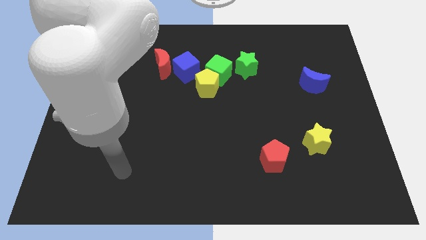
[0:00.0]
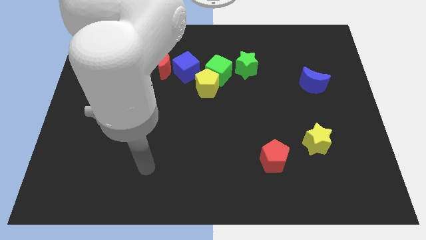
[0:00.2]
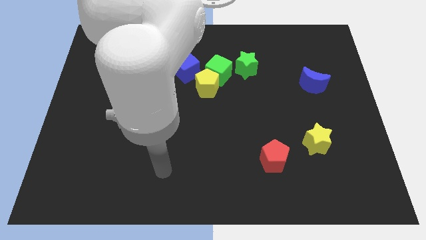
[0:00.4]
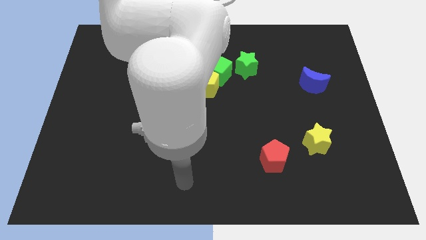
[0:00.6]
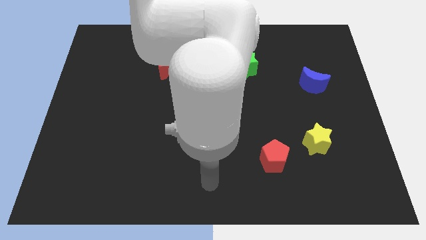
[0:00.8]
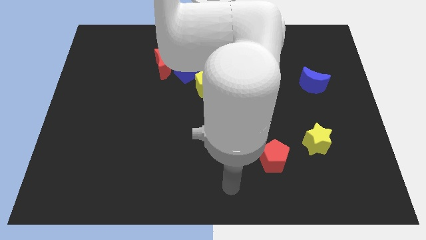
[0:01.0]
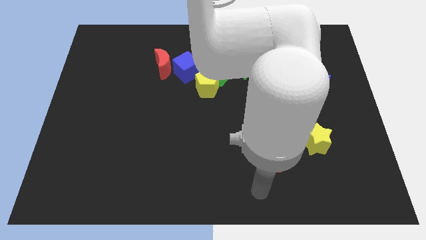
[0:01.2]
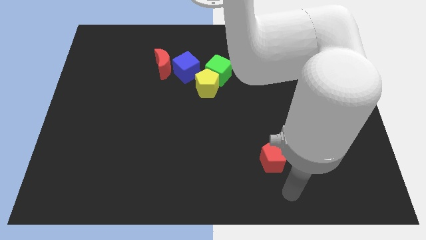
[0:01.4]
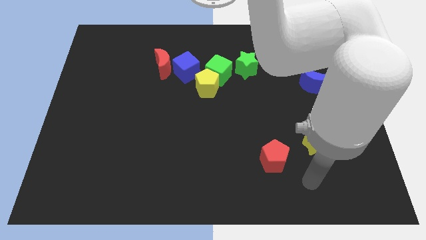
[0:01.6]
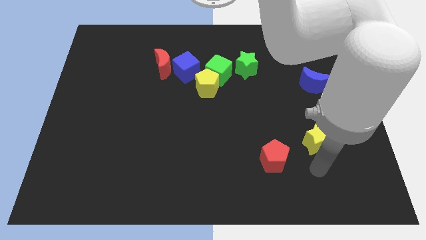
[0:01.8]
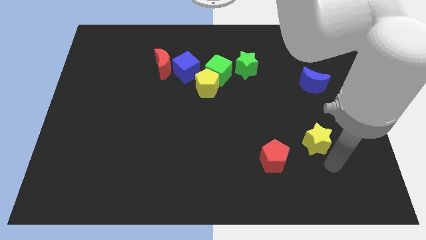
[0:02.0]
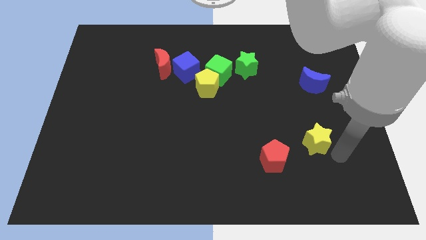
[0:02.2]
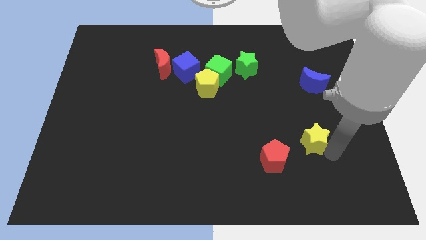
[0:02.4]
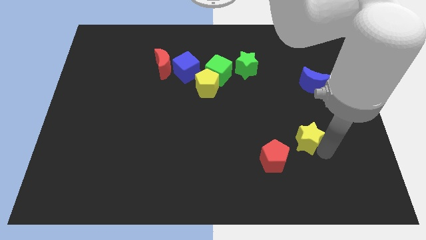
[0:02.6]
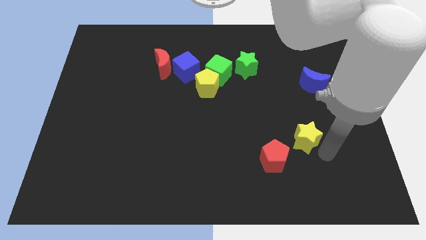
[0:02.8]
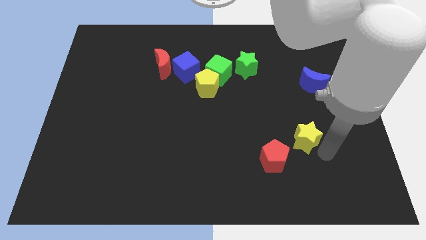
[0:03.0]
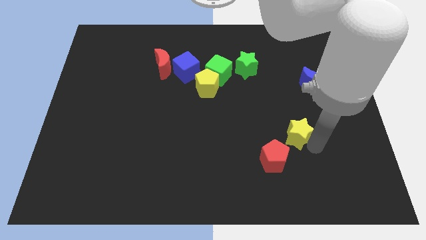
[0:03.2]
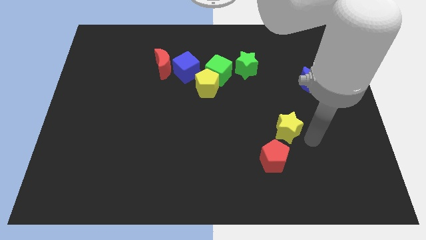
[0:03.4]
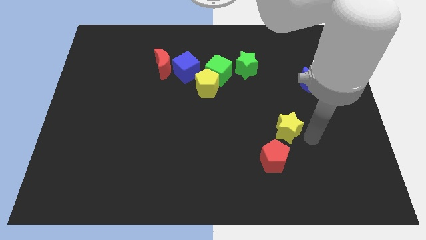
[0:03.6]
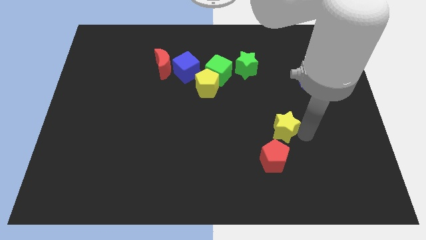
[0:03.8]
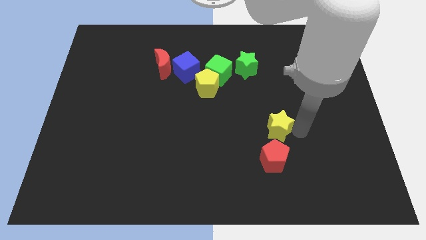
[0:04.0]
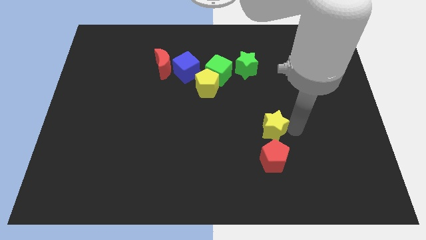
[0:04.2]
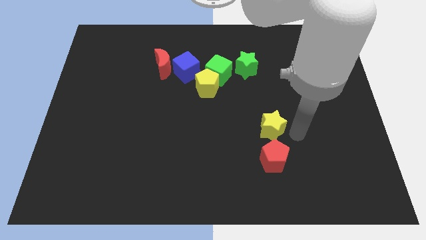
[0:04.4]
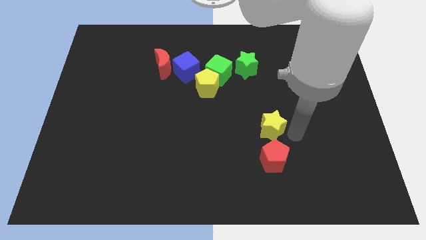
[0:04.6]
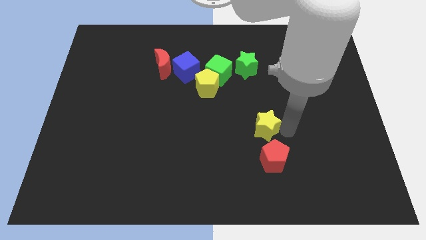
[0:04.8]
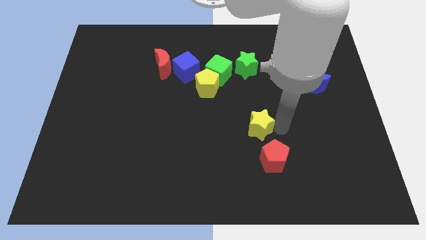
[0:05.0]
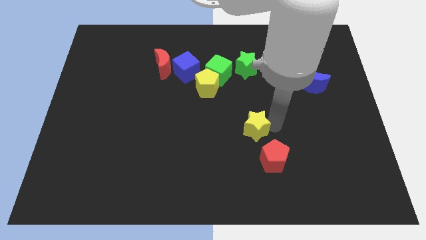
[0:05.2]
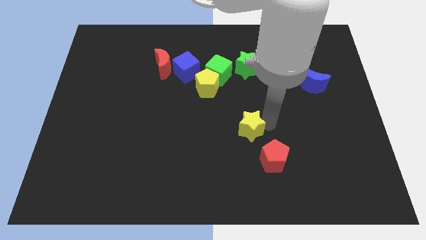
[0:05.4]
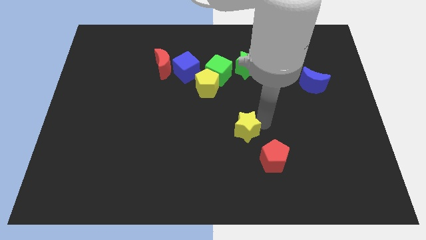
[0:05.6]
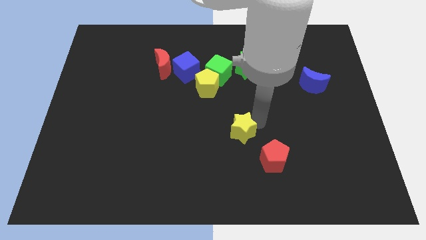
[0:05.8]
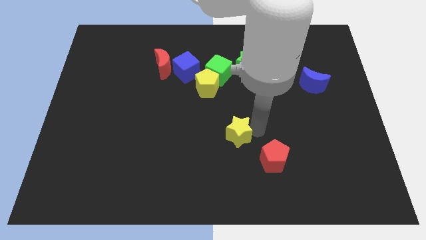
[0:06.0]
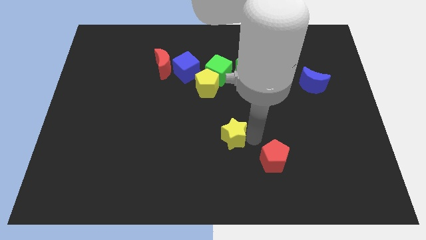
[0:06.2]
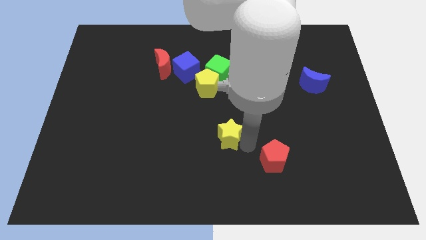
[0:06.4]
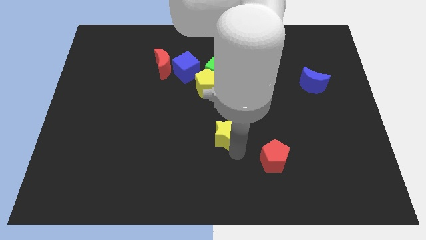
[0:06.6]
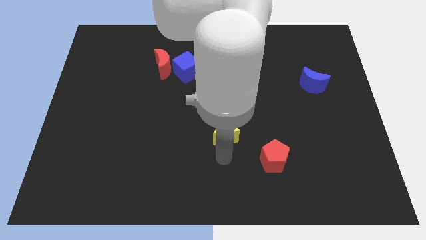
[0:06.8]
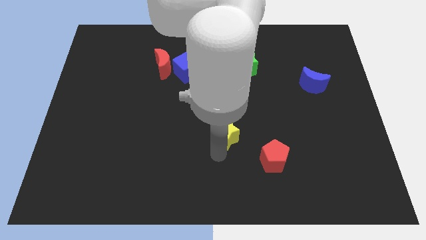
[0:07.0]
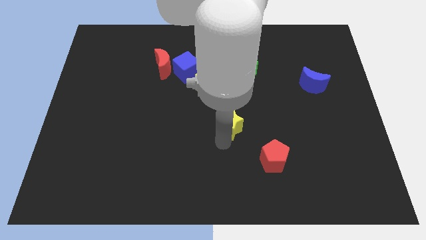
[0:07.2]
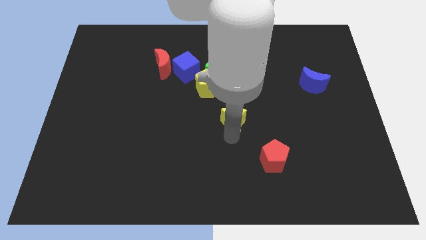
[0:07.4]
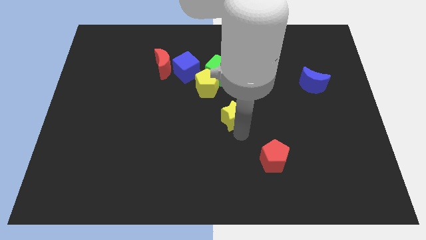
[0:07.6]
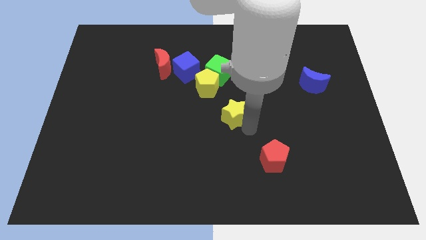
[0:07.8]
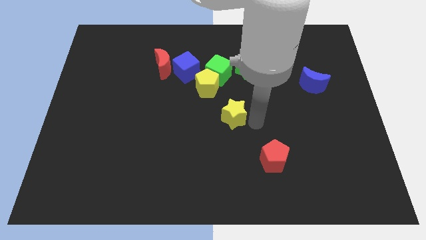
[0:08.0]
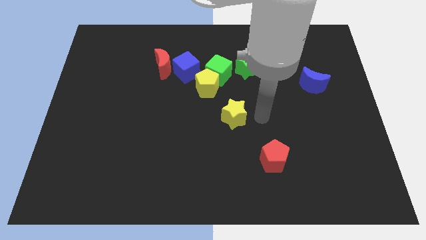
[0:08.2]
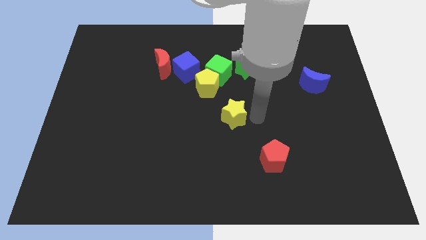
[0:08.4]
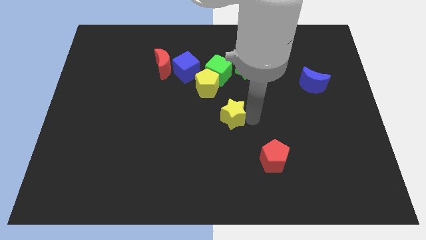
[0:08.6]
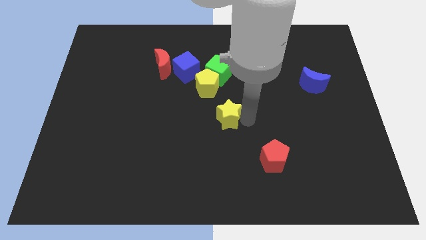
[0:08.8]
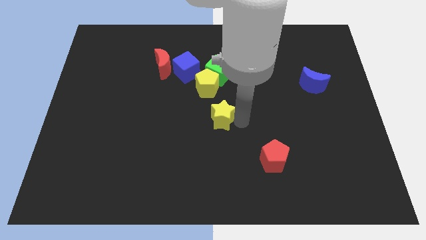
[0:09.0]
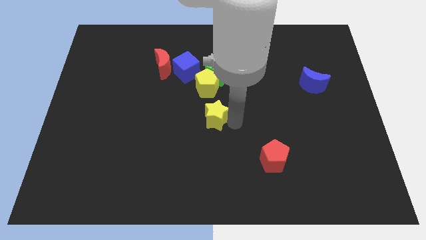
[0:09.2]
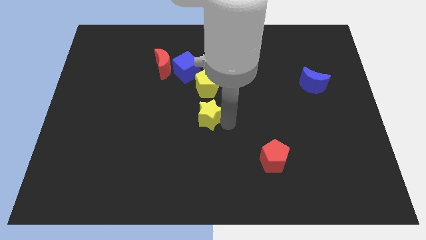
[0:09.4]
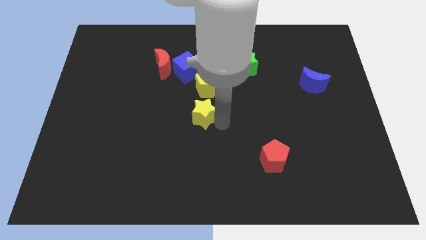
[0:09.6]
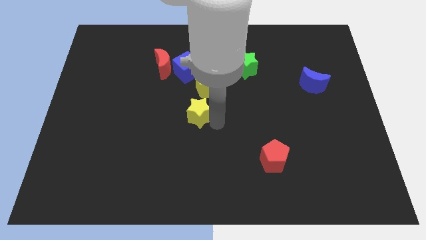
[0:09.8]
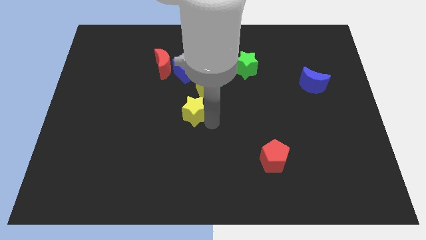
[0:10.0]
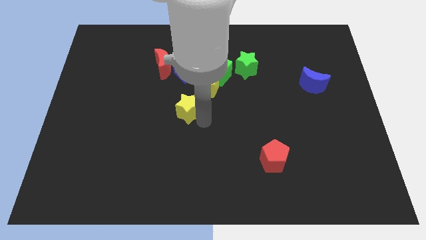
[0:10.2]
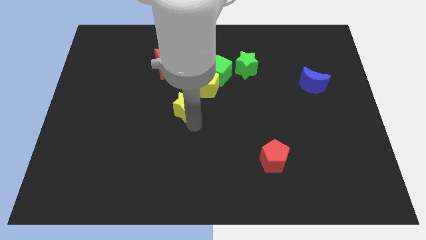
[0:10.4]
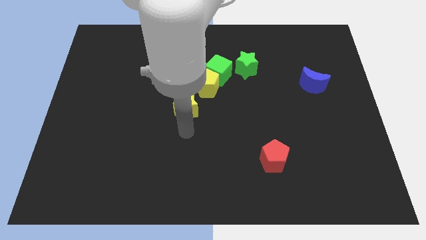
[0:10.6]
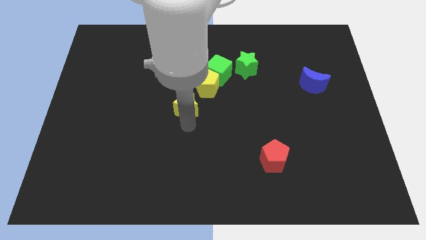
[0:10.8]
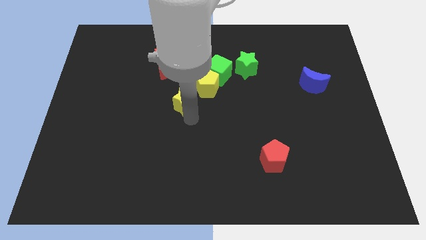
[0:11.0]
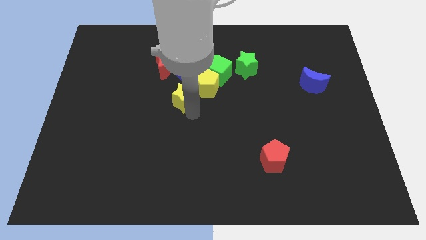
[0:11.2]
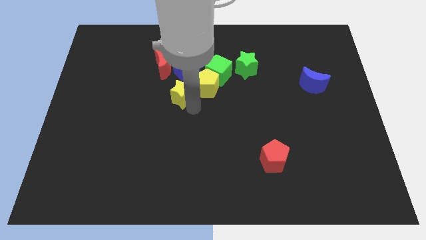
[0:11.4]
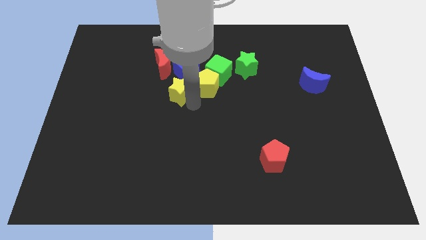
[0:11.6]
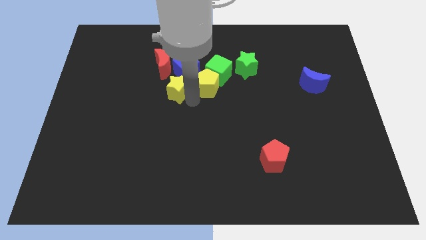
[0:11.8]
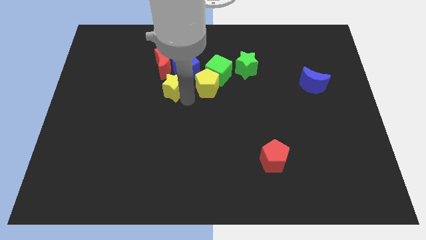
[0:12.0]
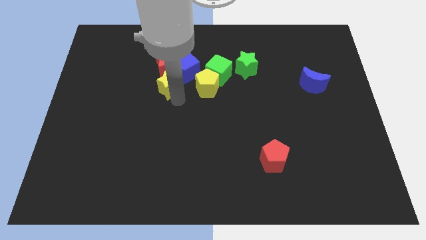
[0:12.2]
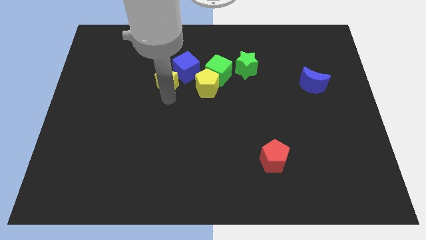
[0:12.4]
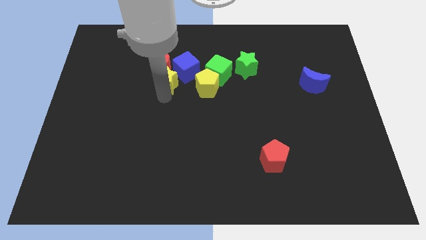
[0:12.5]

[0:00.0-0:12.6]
put the yellow star towards the blue cube

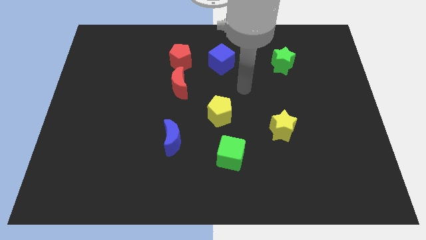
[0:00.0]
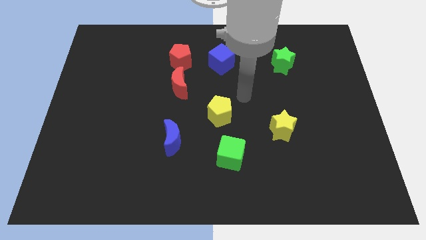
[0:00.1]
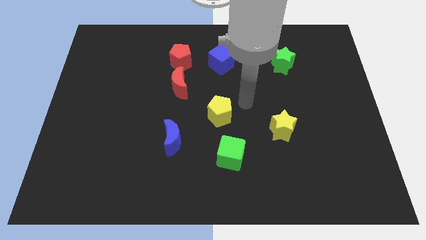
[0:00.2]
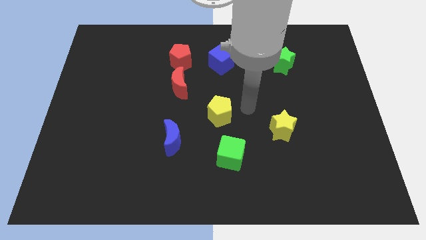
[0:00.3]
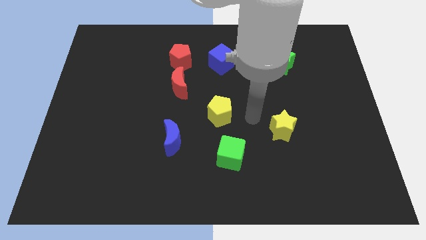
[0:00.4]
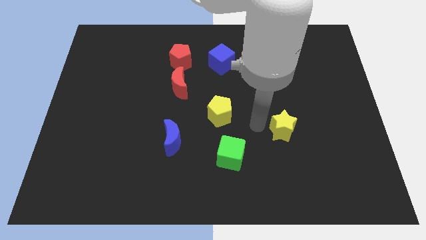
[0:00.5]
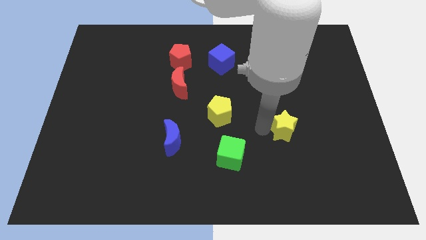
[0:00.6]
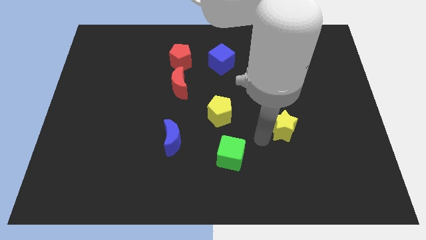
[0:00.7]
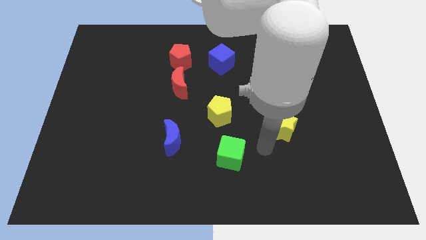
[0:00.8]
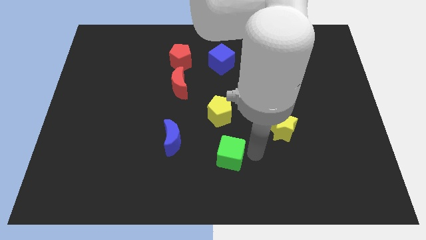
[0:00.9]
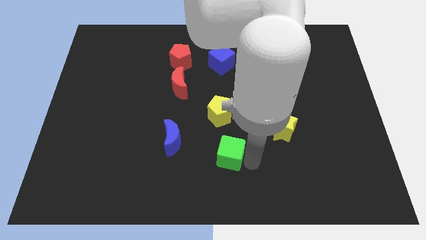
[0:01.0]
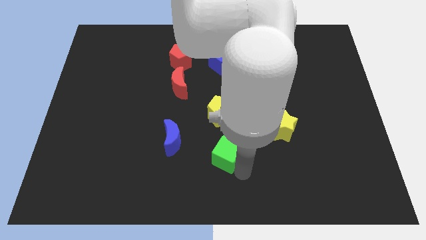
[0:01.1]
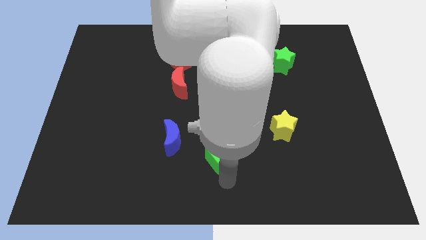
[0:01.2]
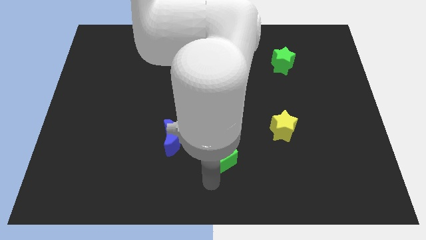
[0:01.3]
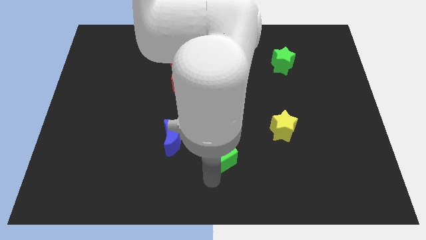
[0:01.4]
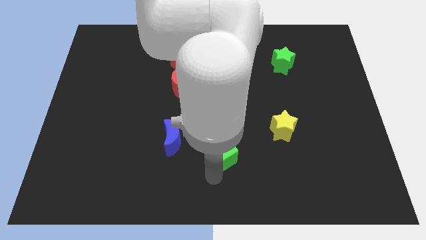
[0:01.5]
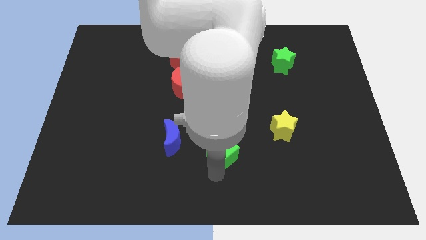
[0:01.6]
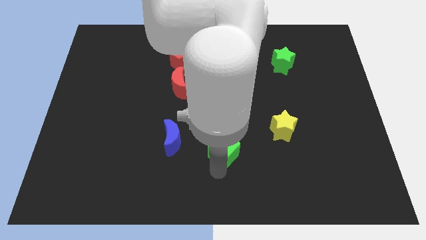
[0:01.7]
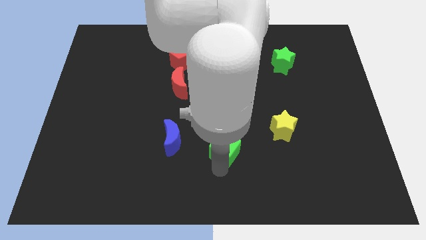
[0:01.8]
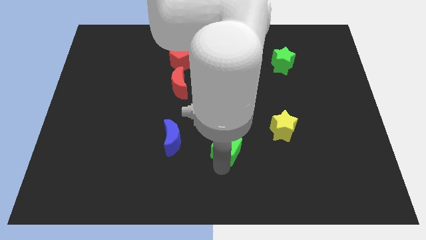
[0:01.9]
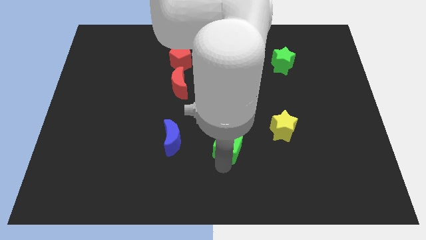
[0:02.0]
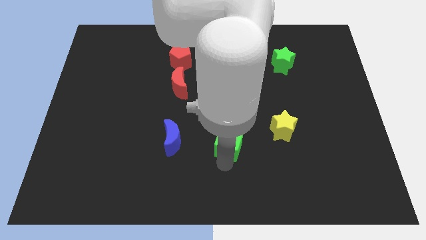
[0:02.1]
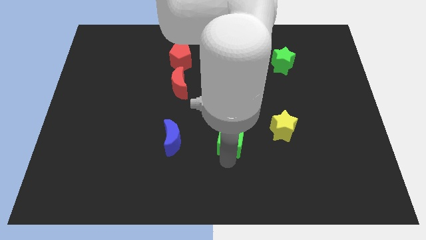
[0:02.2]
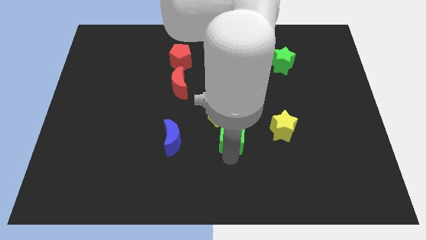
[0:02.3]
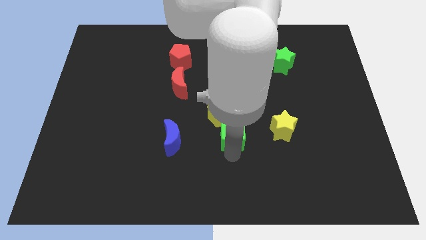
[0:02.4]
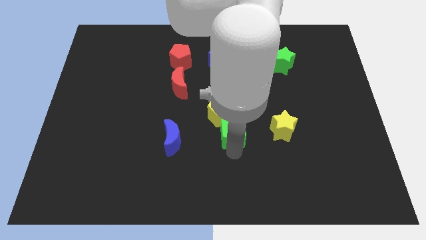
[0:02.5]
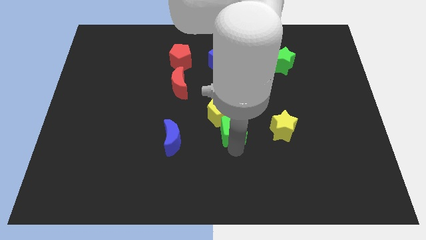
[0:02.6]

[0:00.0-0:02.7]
put the green cube next to the yellow pentagon
